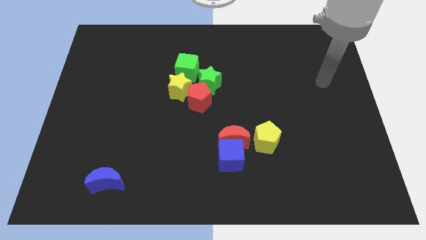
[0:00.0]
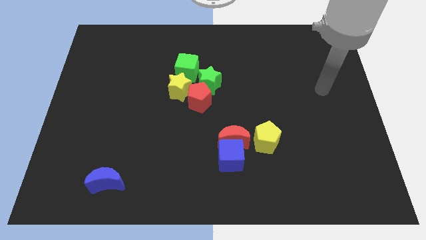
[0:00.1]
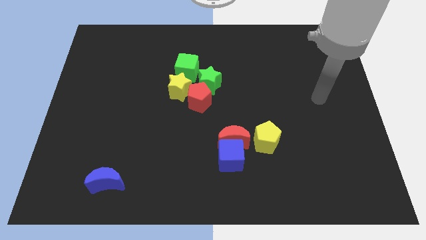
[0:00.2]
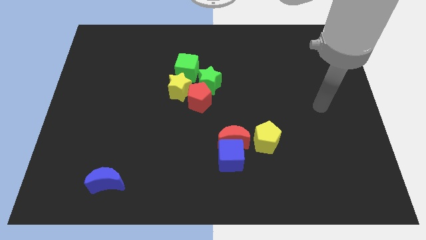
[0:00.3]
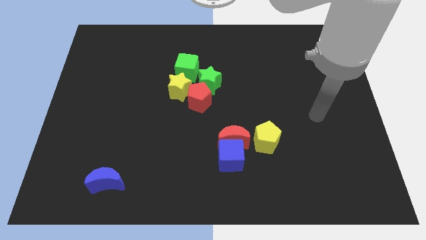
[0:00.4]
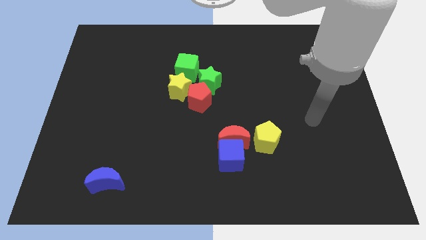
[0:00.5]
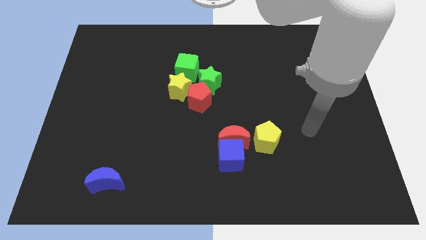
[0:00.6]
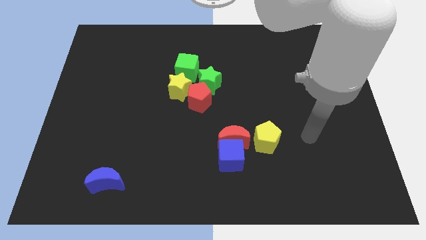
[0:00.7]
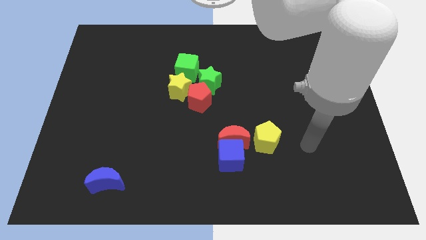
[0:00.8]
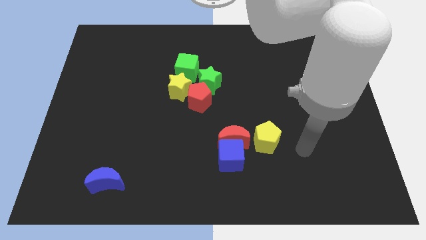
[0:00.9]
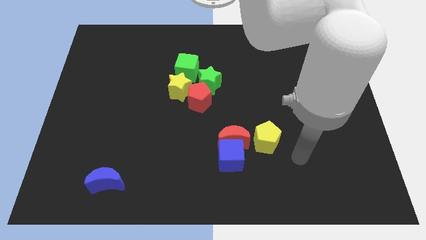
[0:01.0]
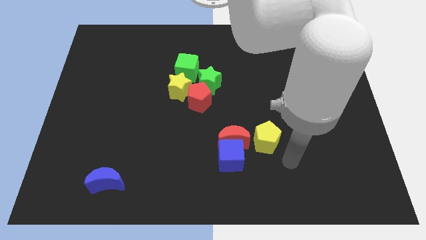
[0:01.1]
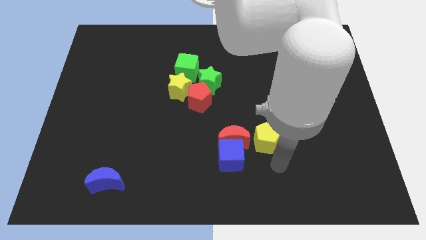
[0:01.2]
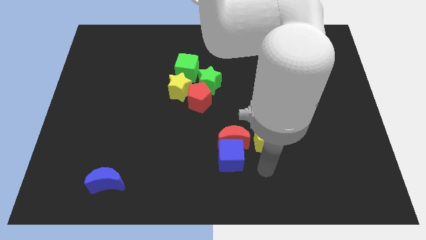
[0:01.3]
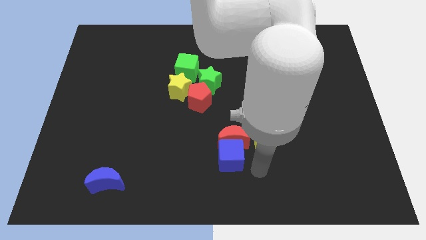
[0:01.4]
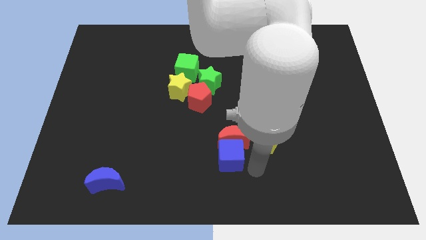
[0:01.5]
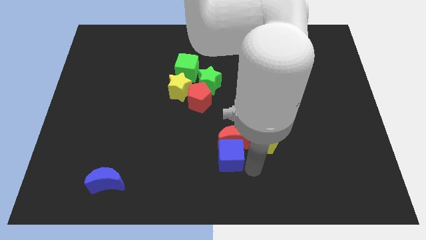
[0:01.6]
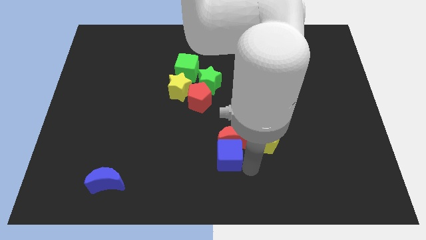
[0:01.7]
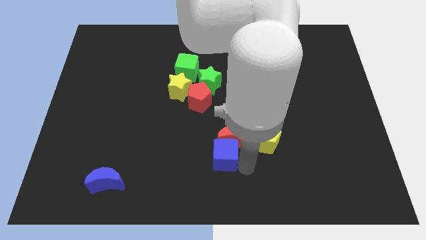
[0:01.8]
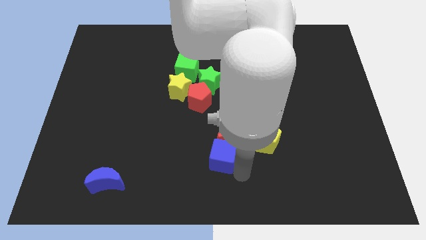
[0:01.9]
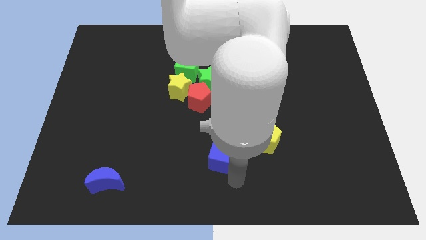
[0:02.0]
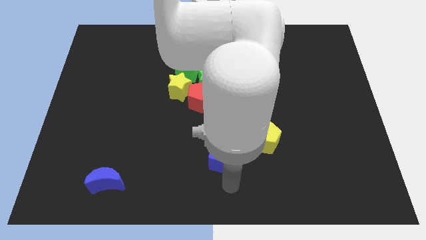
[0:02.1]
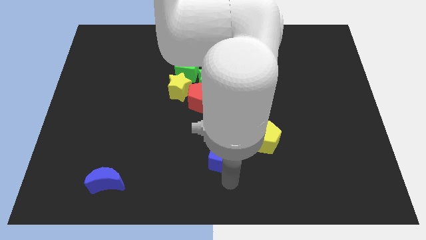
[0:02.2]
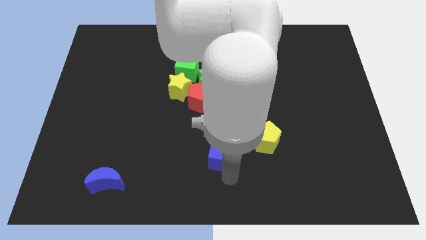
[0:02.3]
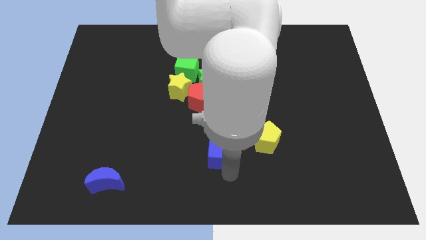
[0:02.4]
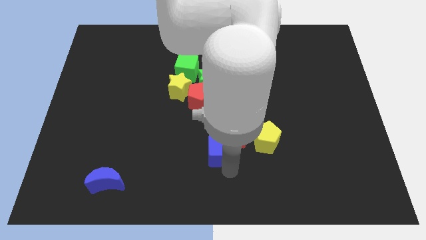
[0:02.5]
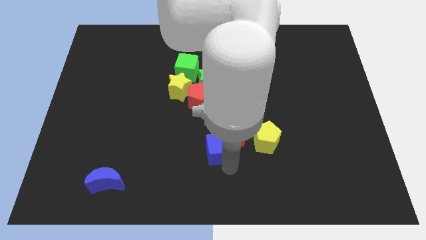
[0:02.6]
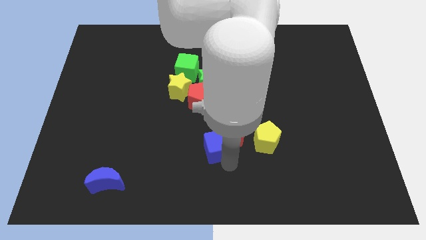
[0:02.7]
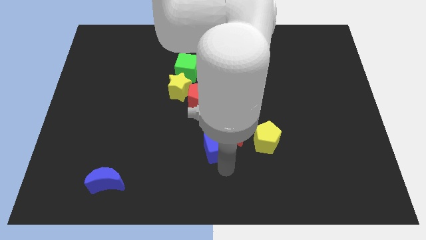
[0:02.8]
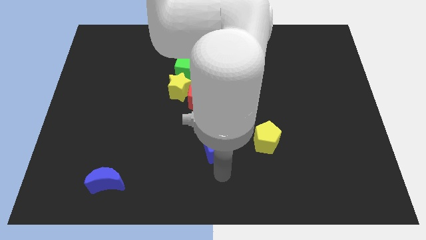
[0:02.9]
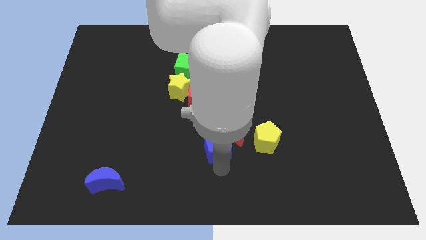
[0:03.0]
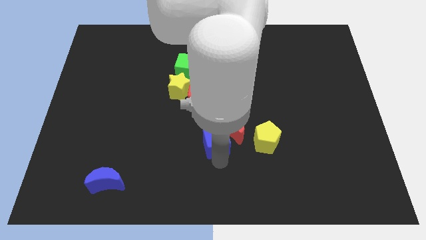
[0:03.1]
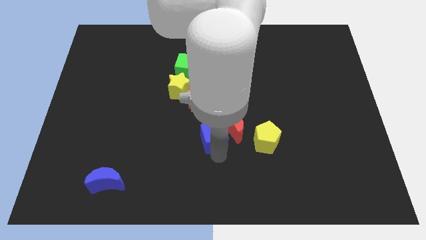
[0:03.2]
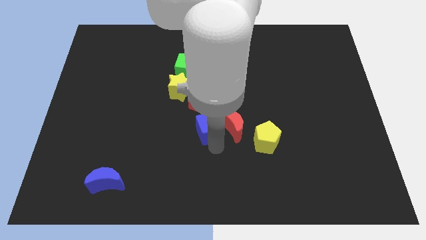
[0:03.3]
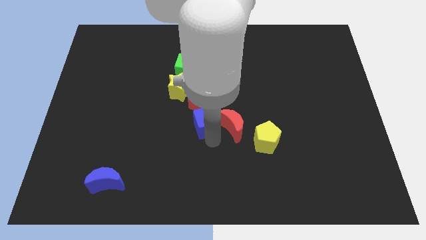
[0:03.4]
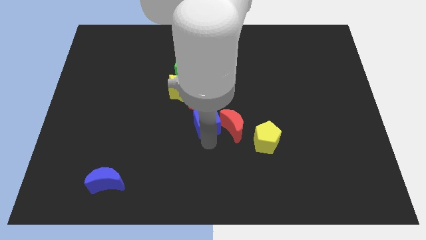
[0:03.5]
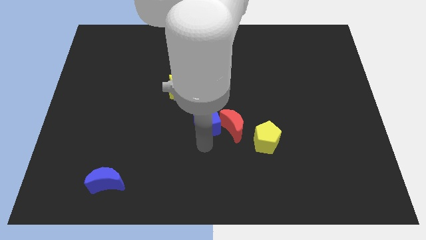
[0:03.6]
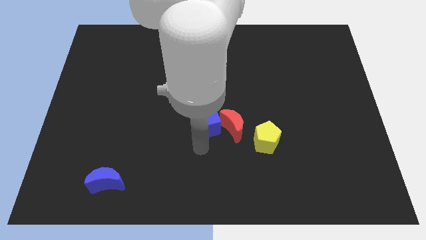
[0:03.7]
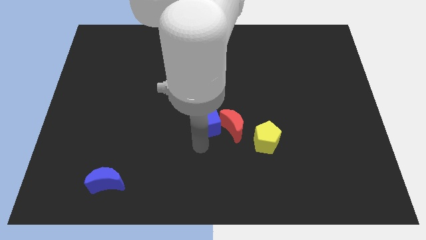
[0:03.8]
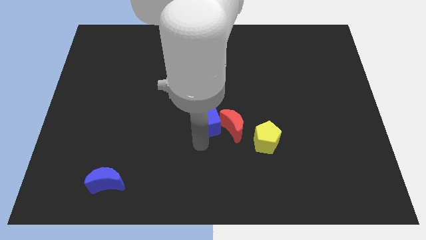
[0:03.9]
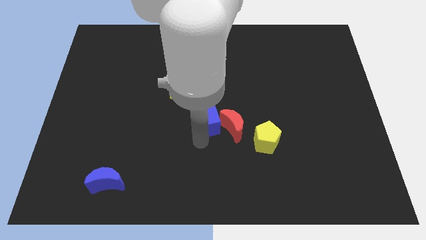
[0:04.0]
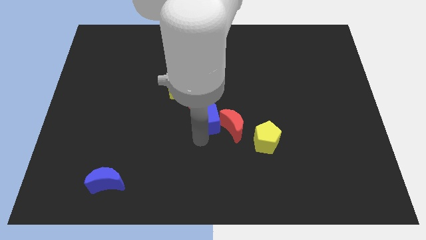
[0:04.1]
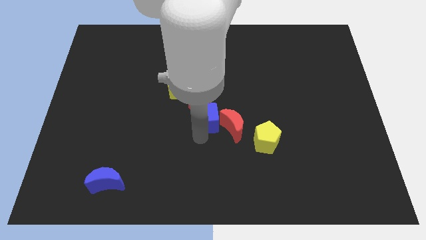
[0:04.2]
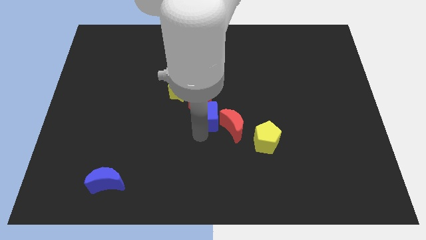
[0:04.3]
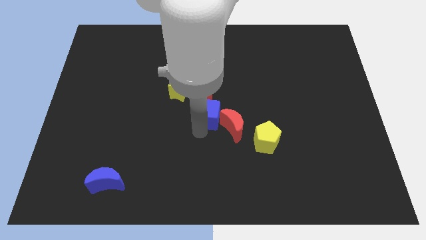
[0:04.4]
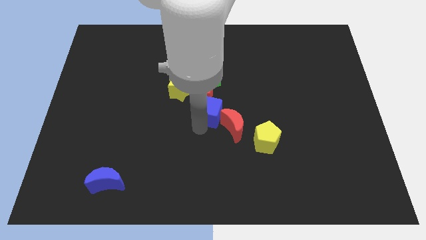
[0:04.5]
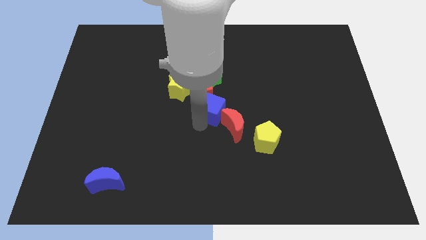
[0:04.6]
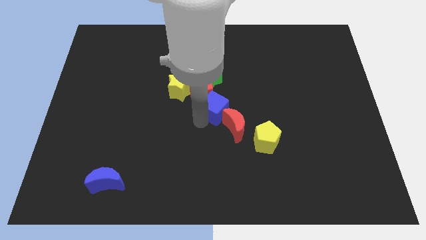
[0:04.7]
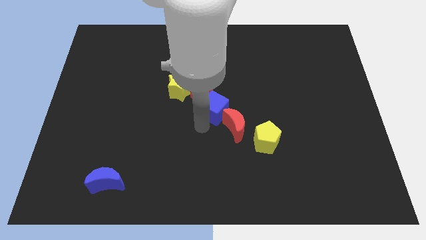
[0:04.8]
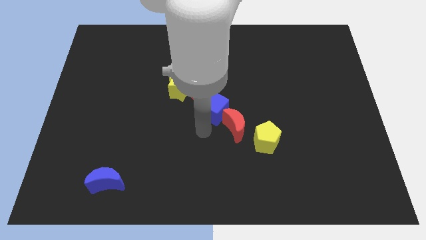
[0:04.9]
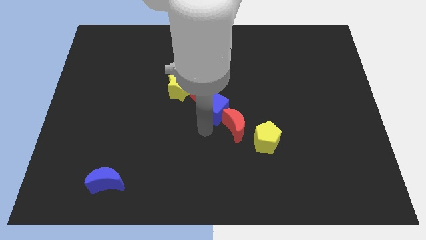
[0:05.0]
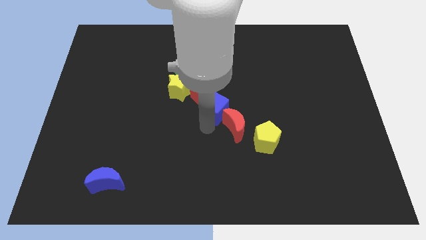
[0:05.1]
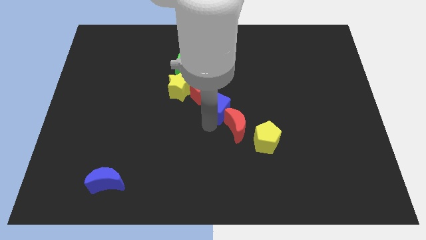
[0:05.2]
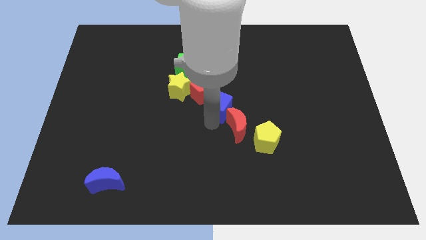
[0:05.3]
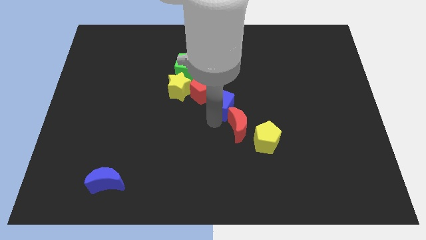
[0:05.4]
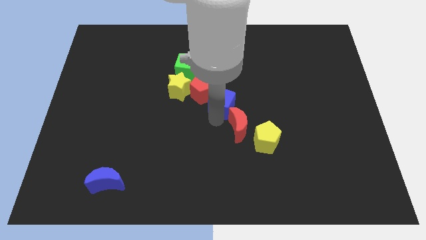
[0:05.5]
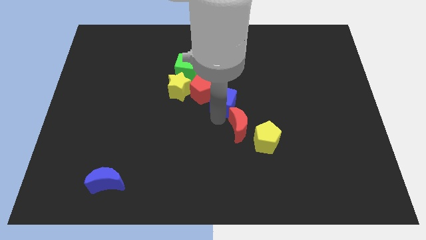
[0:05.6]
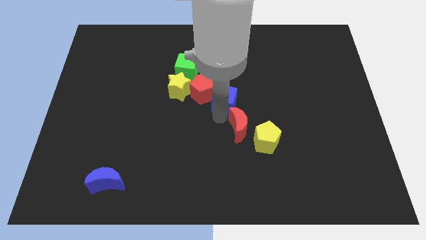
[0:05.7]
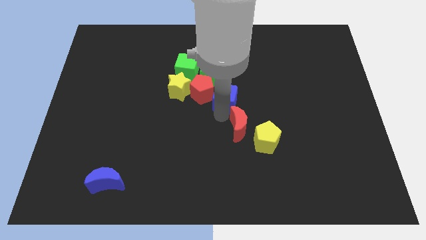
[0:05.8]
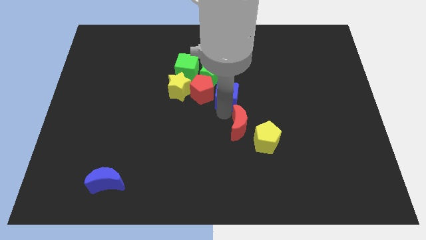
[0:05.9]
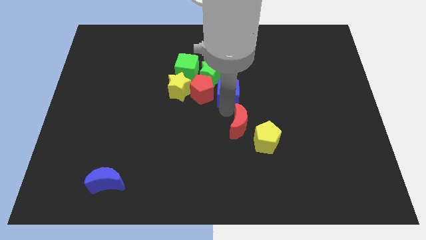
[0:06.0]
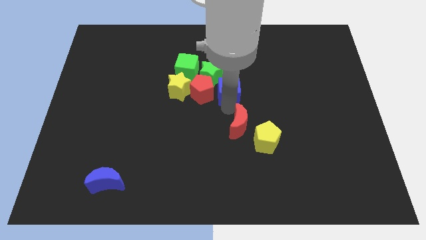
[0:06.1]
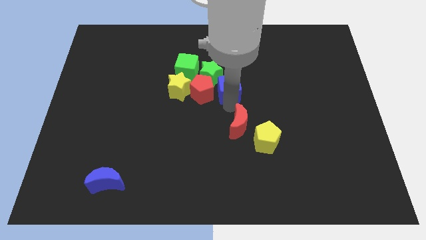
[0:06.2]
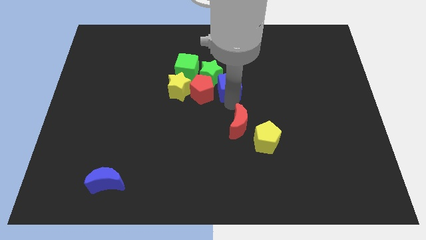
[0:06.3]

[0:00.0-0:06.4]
push the blue cube towards the green star

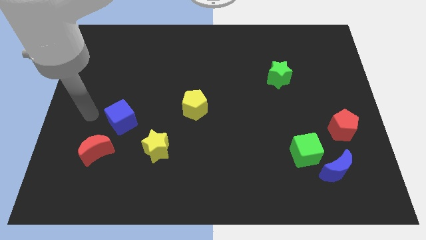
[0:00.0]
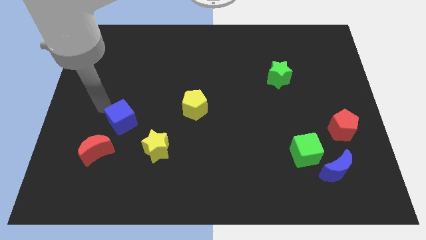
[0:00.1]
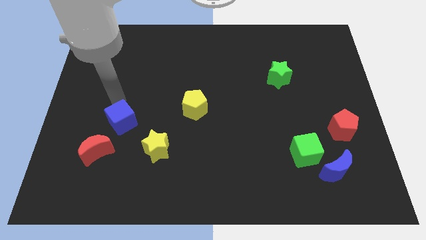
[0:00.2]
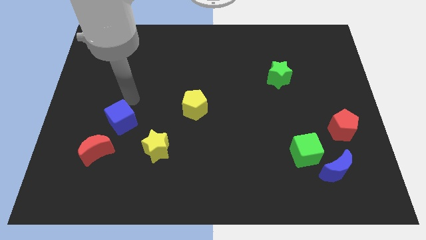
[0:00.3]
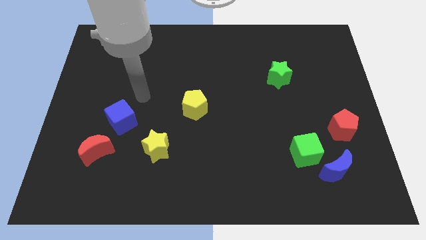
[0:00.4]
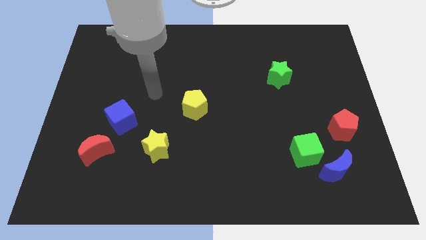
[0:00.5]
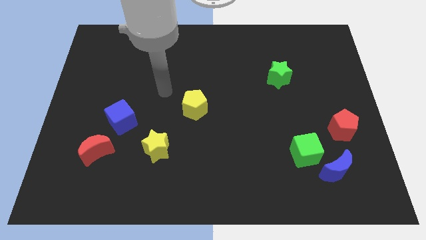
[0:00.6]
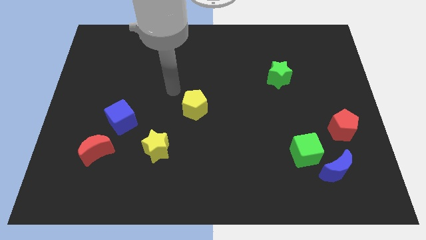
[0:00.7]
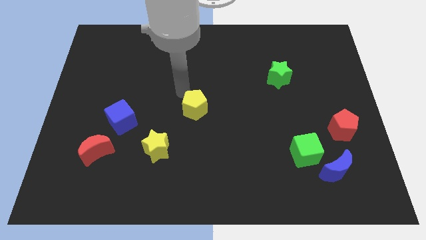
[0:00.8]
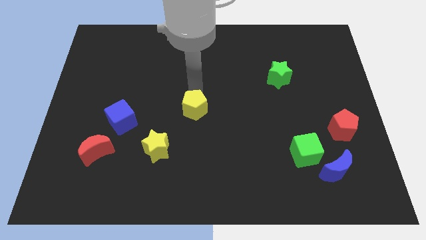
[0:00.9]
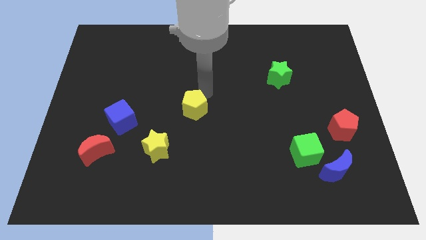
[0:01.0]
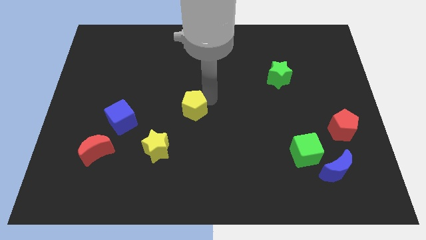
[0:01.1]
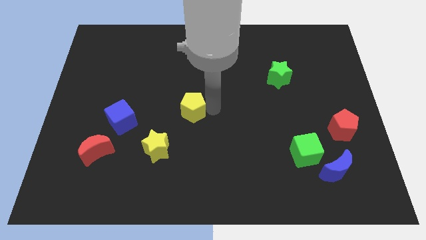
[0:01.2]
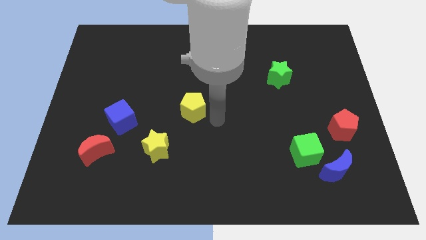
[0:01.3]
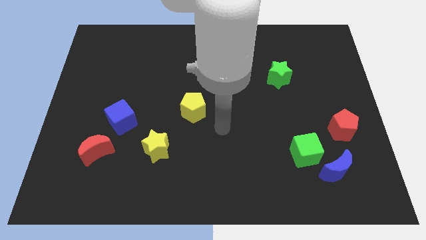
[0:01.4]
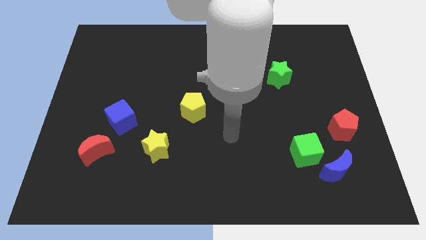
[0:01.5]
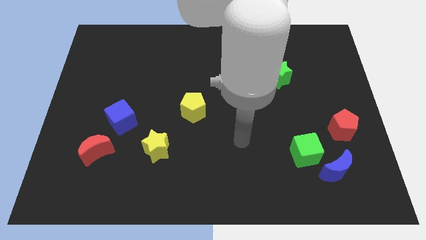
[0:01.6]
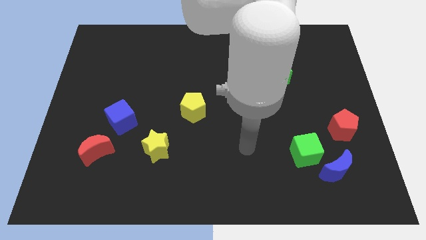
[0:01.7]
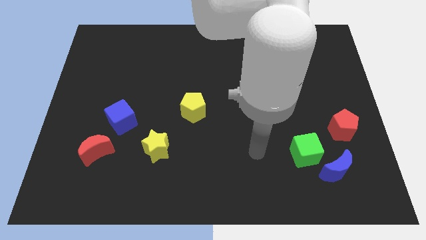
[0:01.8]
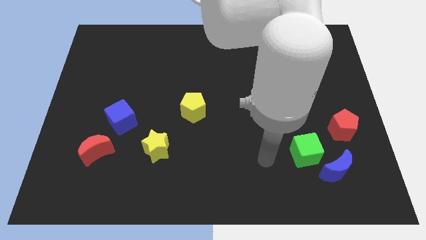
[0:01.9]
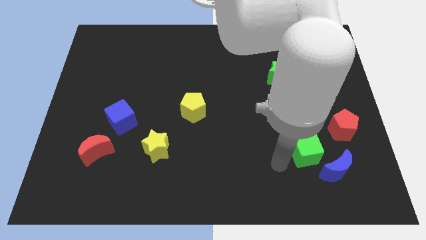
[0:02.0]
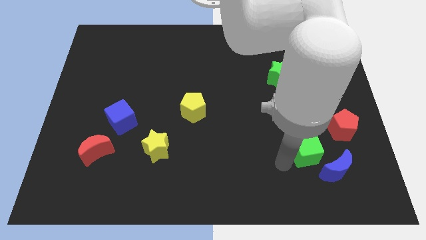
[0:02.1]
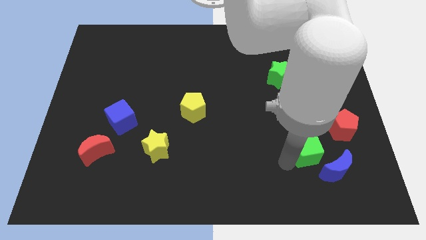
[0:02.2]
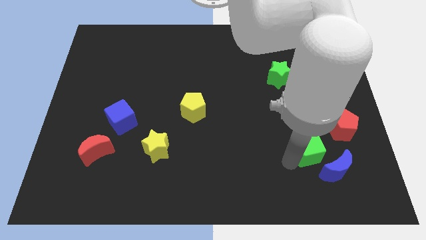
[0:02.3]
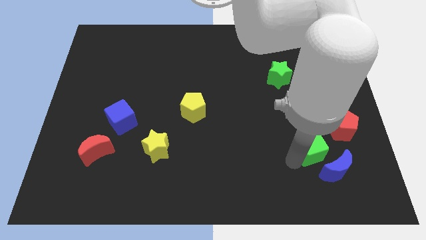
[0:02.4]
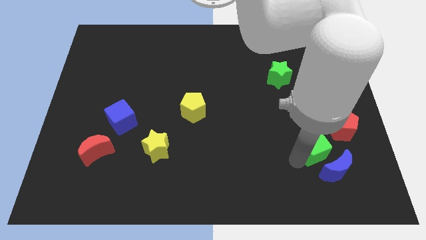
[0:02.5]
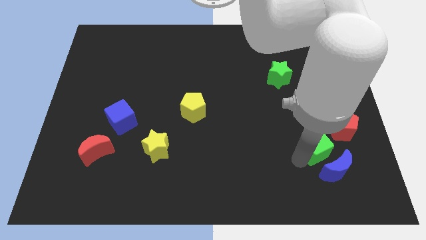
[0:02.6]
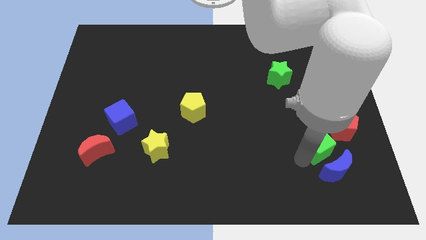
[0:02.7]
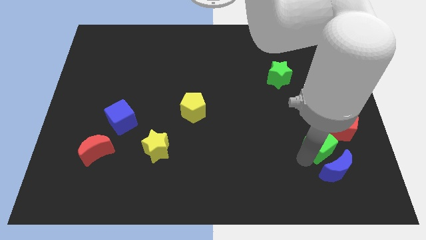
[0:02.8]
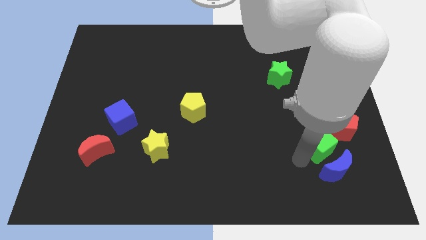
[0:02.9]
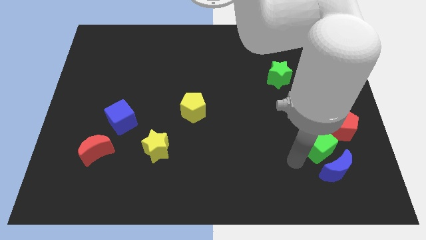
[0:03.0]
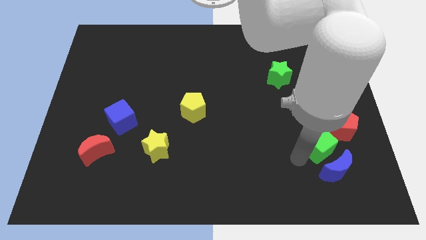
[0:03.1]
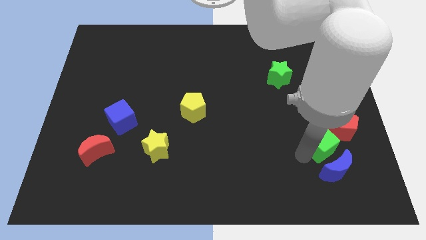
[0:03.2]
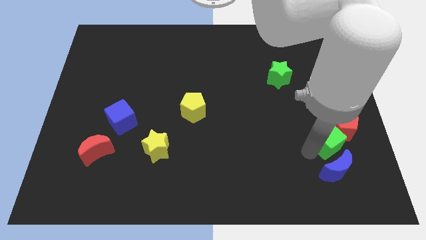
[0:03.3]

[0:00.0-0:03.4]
push the green cube towards the red pentagon
